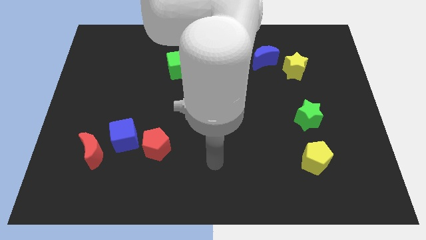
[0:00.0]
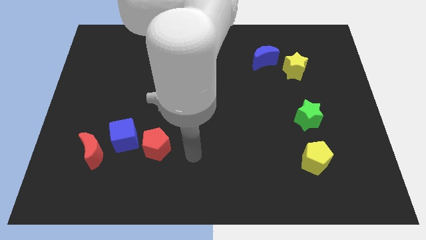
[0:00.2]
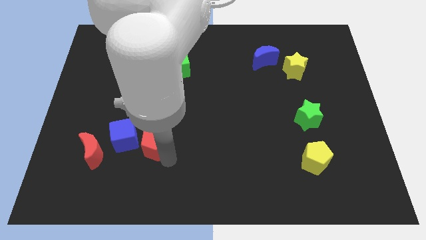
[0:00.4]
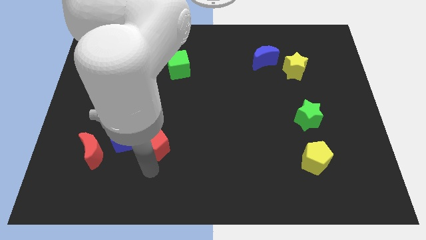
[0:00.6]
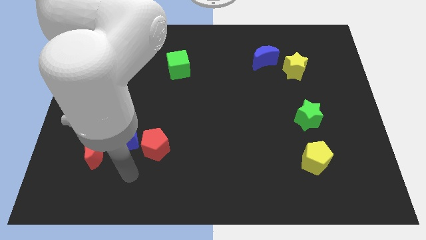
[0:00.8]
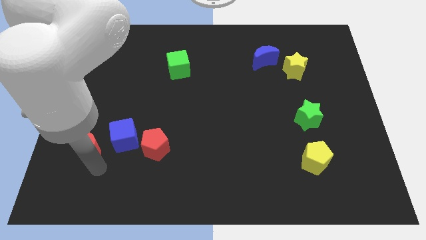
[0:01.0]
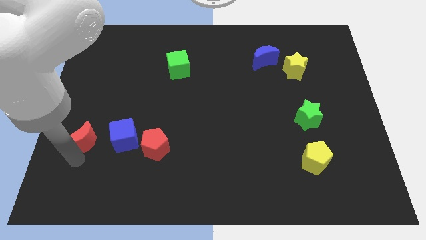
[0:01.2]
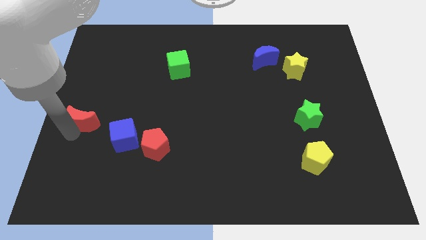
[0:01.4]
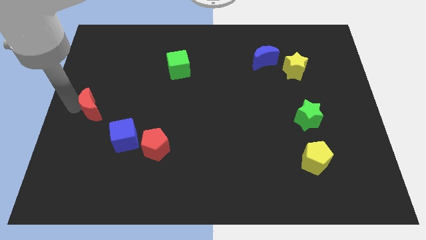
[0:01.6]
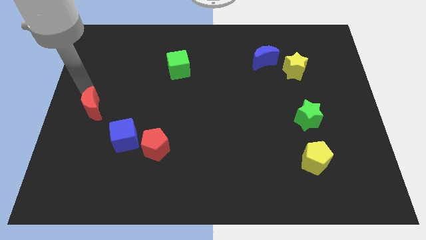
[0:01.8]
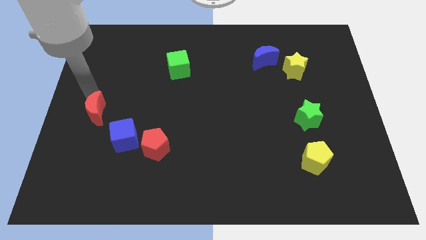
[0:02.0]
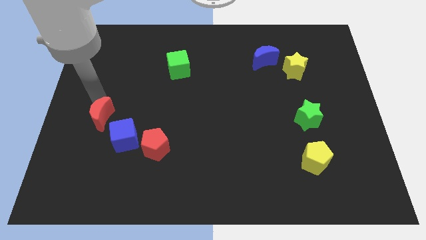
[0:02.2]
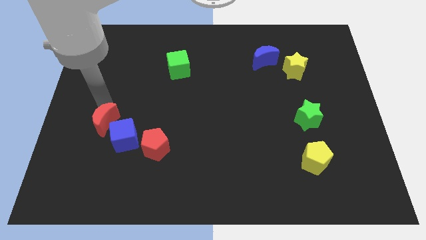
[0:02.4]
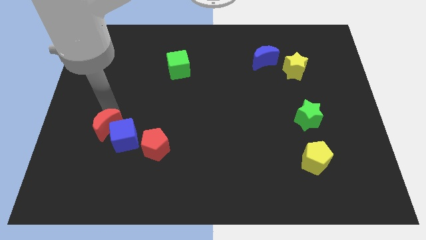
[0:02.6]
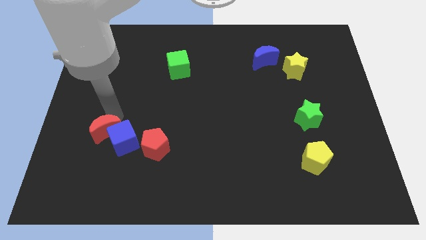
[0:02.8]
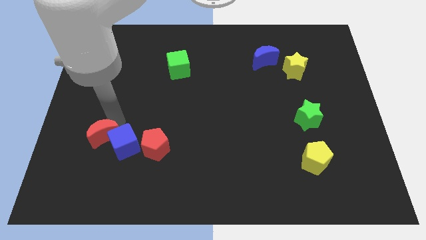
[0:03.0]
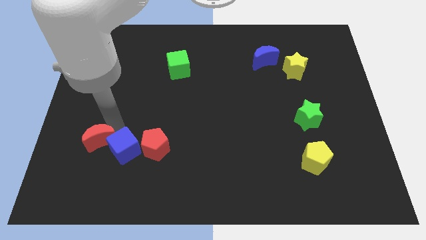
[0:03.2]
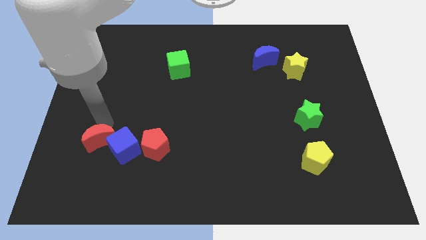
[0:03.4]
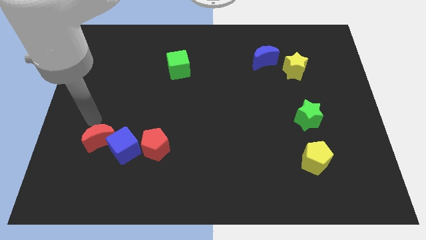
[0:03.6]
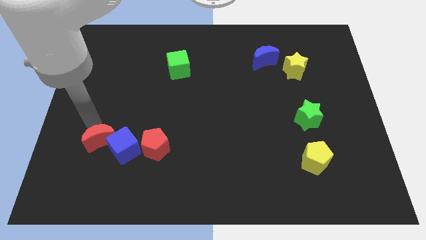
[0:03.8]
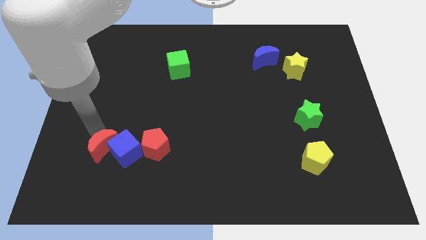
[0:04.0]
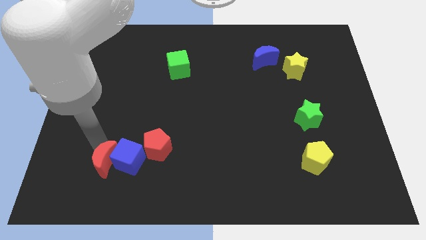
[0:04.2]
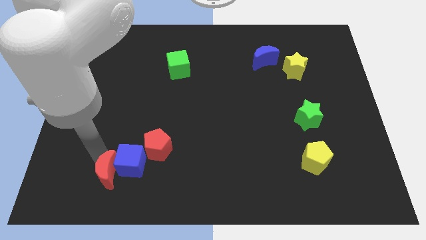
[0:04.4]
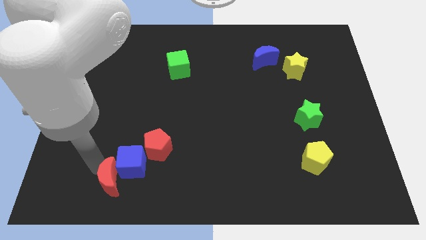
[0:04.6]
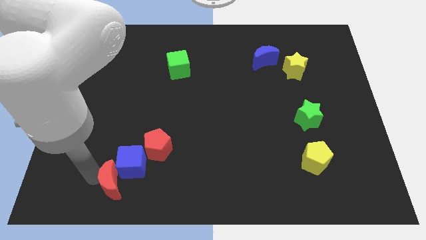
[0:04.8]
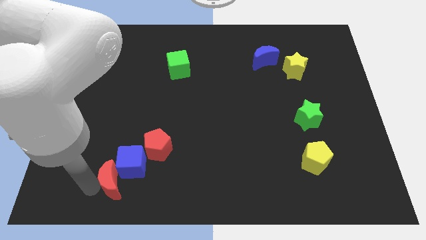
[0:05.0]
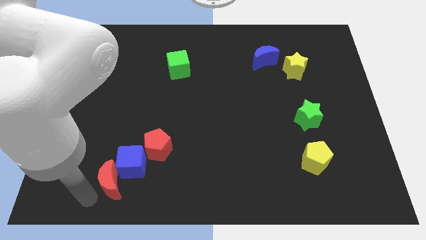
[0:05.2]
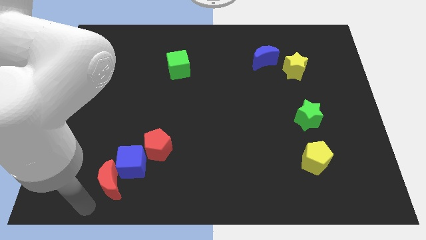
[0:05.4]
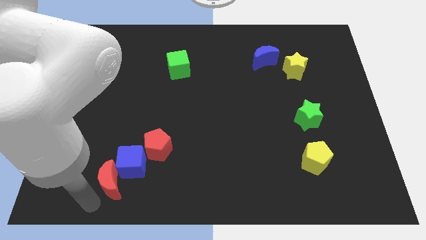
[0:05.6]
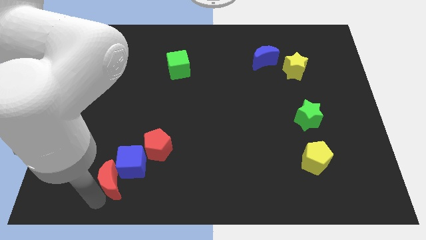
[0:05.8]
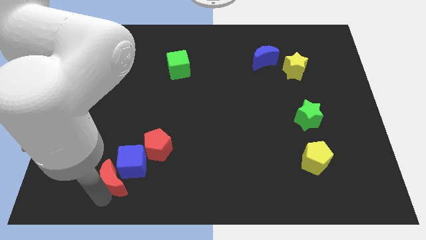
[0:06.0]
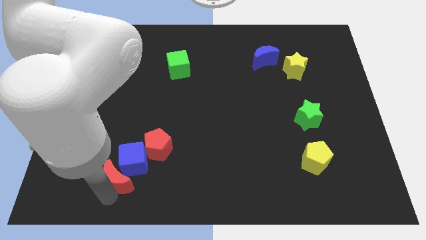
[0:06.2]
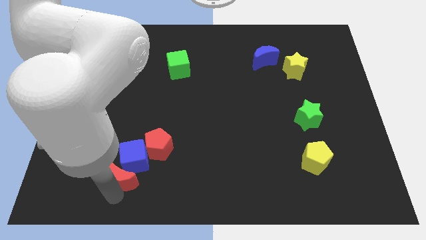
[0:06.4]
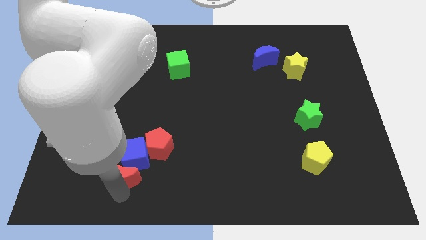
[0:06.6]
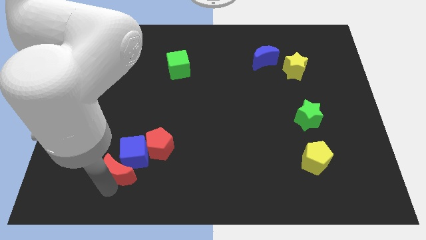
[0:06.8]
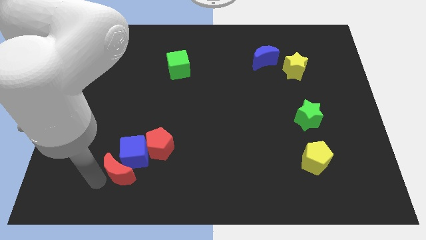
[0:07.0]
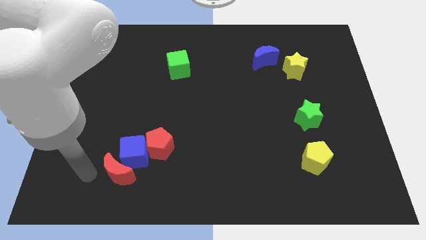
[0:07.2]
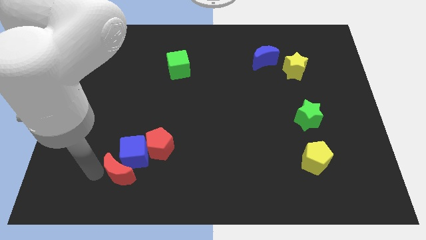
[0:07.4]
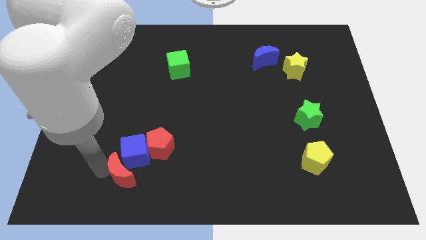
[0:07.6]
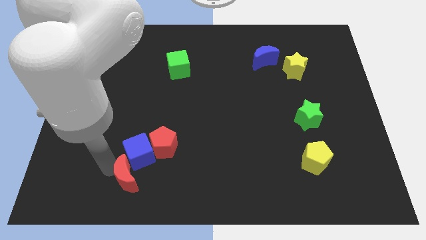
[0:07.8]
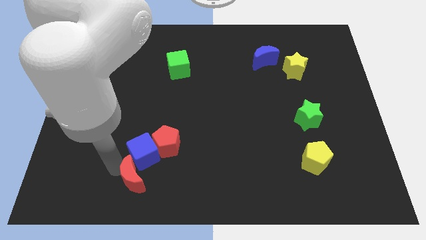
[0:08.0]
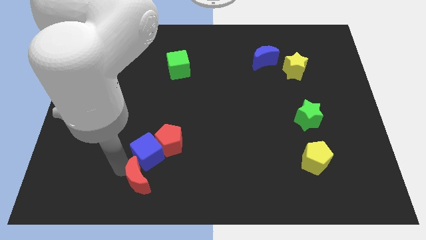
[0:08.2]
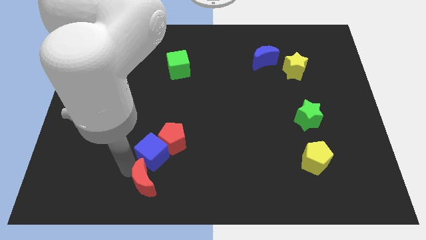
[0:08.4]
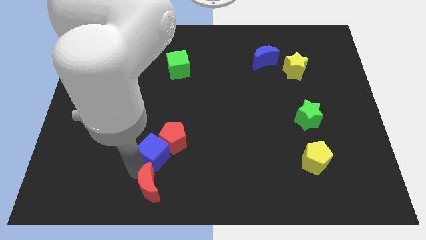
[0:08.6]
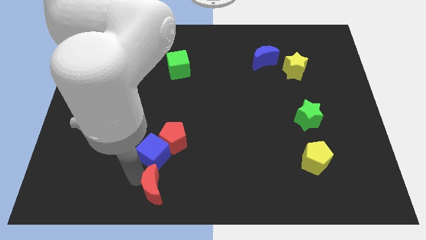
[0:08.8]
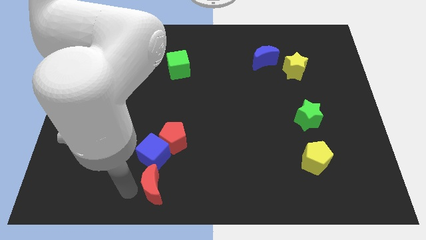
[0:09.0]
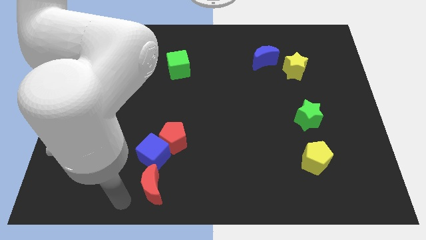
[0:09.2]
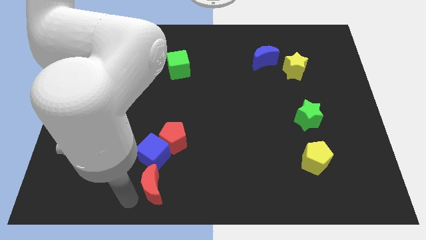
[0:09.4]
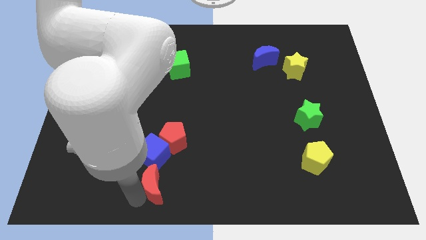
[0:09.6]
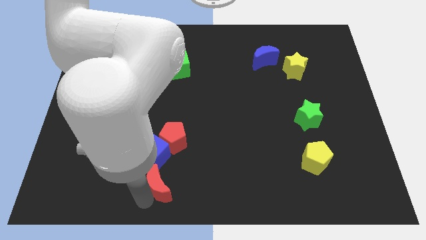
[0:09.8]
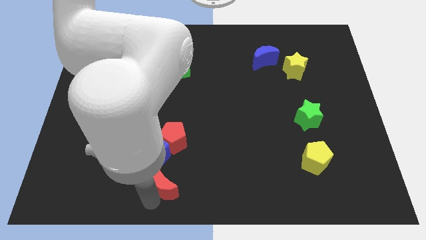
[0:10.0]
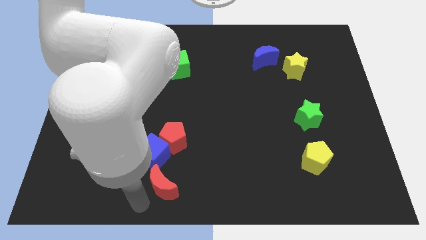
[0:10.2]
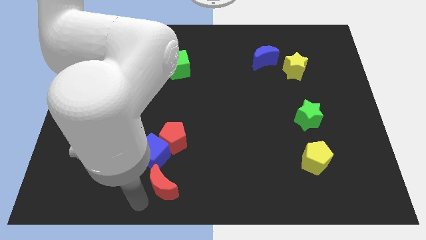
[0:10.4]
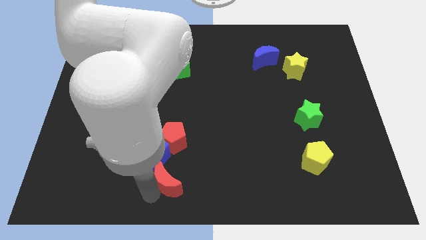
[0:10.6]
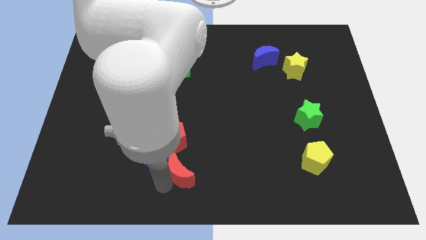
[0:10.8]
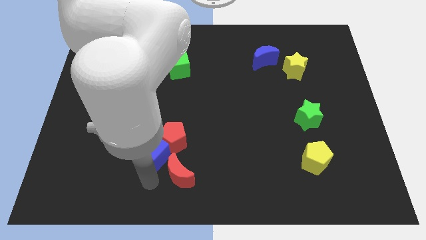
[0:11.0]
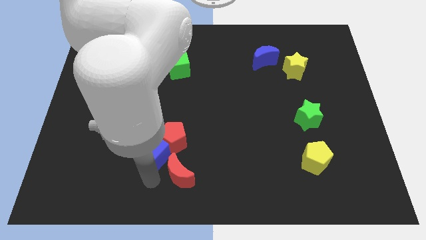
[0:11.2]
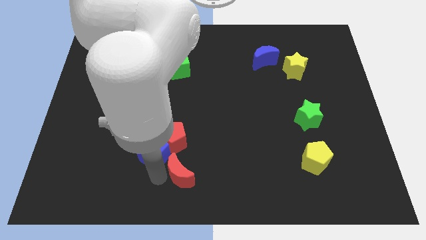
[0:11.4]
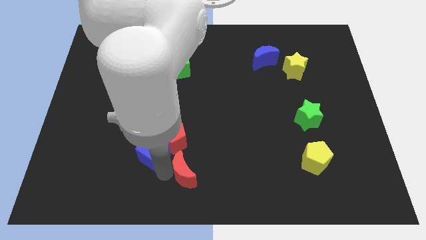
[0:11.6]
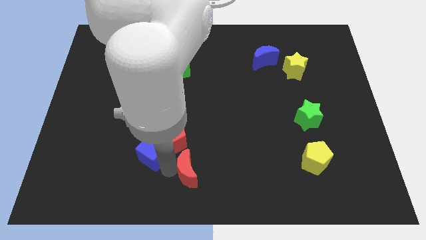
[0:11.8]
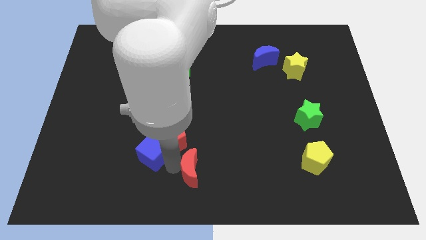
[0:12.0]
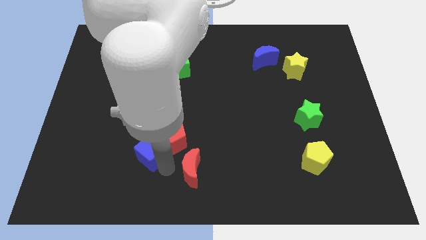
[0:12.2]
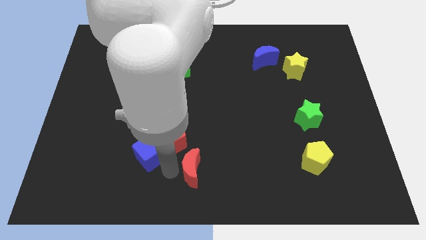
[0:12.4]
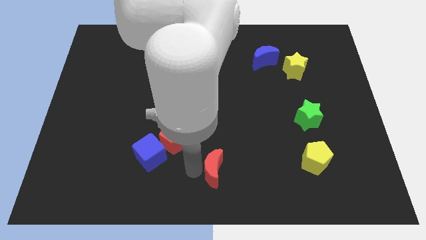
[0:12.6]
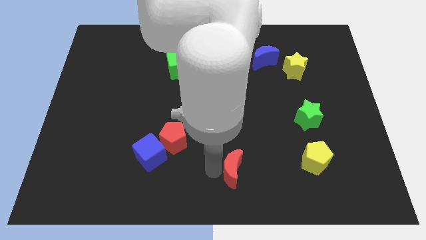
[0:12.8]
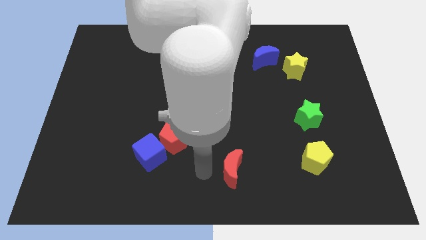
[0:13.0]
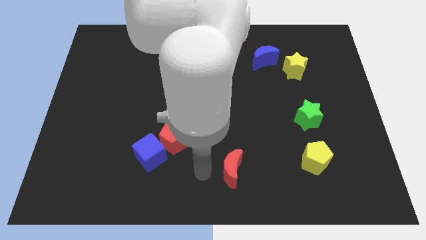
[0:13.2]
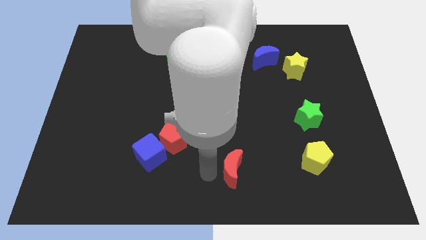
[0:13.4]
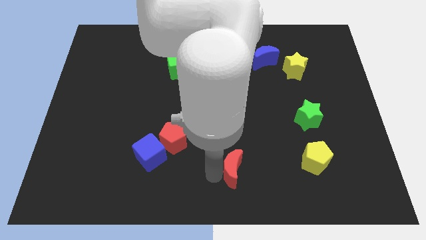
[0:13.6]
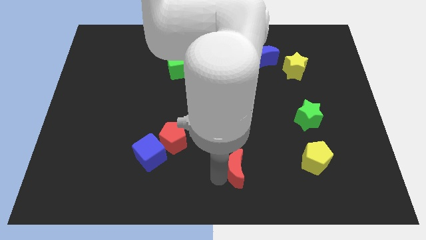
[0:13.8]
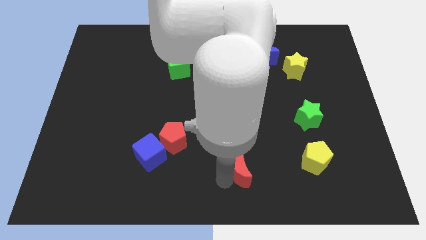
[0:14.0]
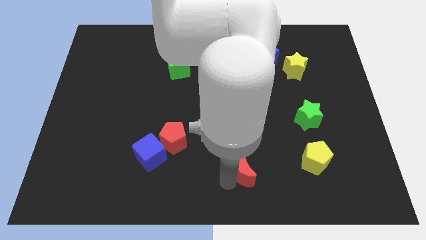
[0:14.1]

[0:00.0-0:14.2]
slide the red moon left of the yellow pentagon

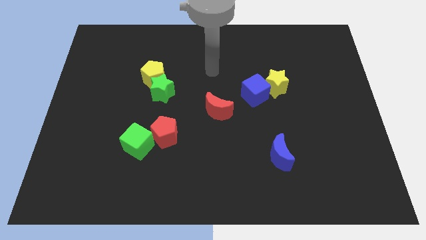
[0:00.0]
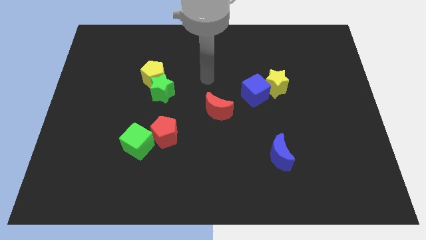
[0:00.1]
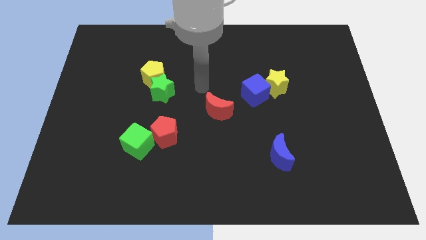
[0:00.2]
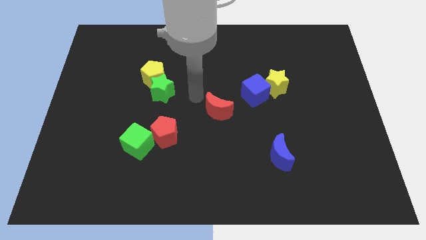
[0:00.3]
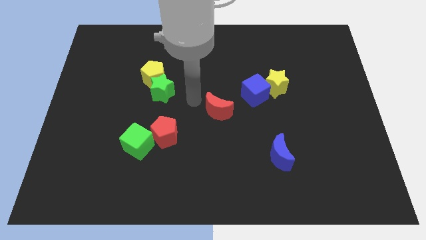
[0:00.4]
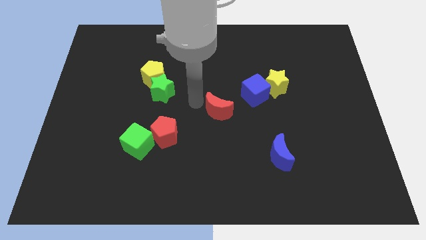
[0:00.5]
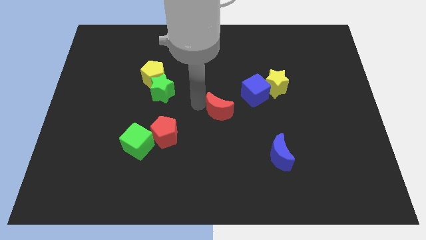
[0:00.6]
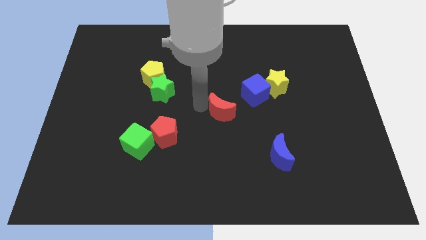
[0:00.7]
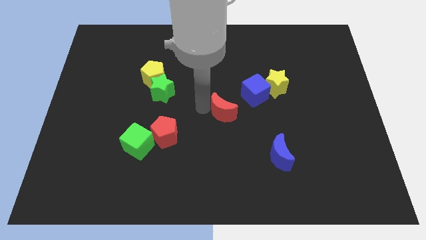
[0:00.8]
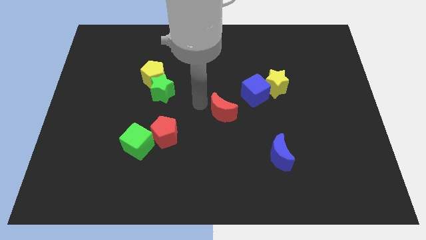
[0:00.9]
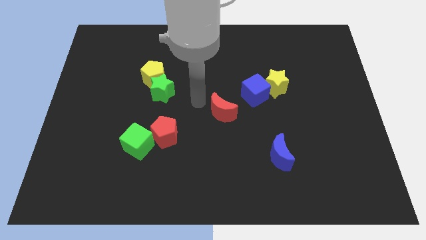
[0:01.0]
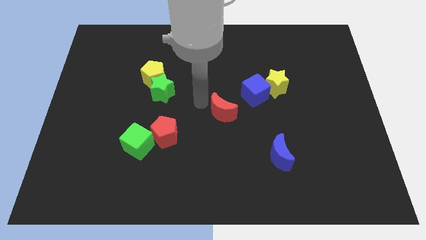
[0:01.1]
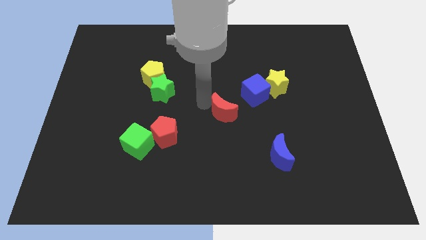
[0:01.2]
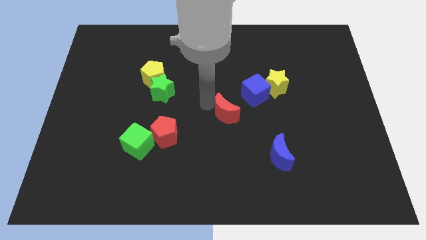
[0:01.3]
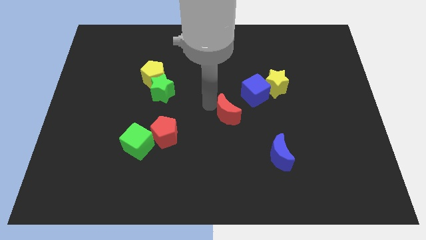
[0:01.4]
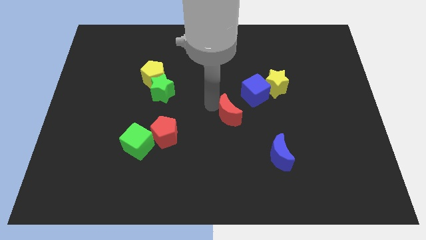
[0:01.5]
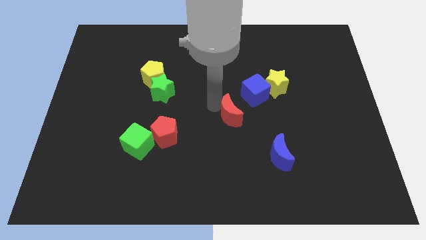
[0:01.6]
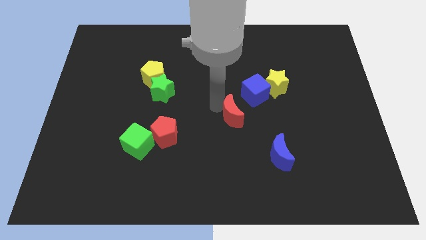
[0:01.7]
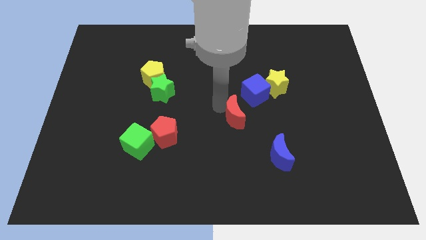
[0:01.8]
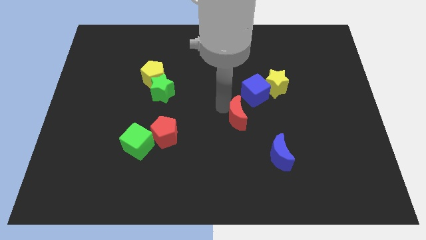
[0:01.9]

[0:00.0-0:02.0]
move the red moon below the blue cube
